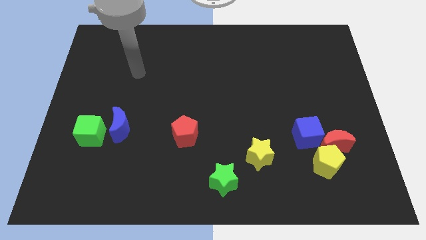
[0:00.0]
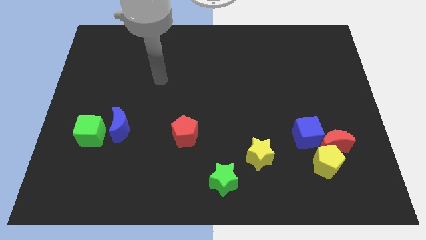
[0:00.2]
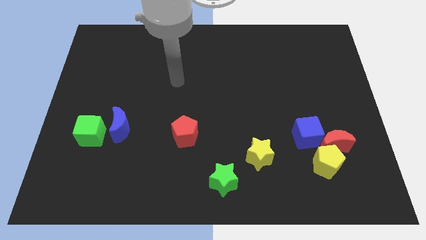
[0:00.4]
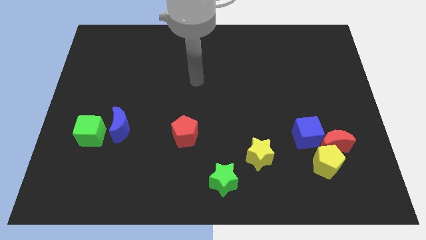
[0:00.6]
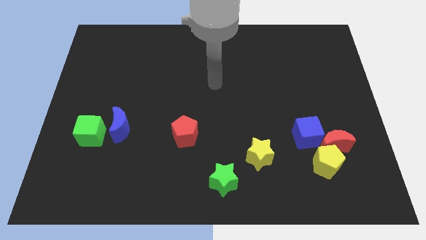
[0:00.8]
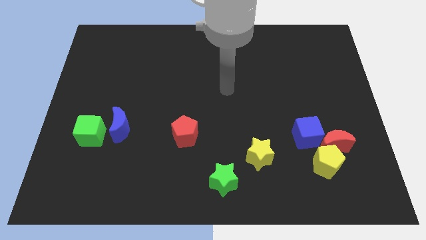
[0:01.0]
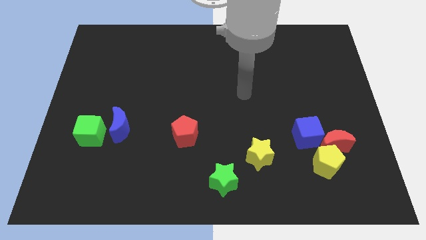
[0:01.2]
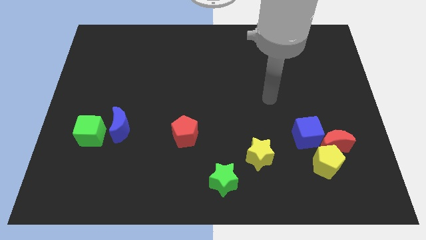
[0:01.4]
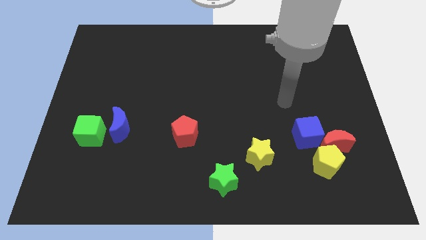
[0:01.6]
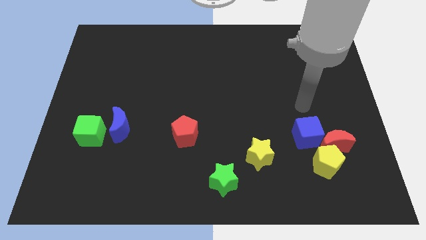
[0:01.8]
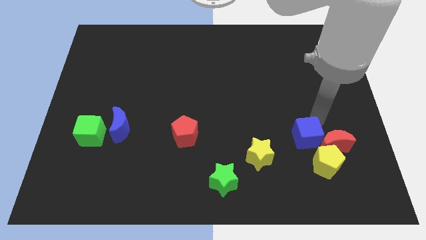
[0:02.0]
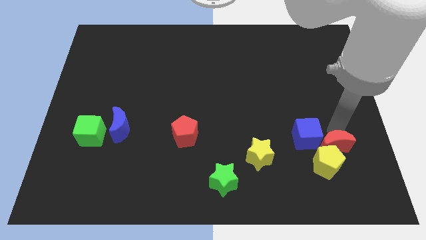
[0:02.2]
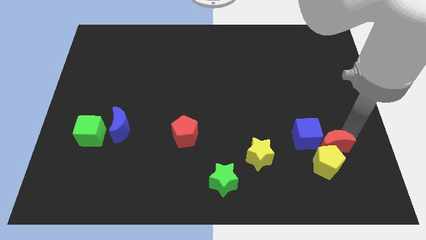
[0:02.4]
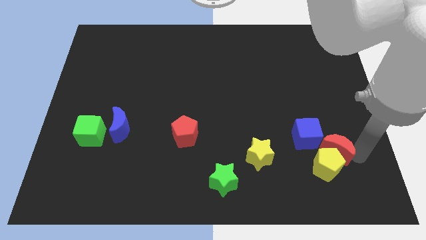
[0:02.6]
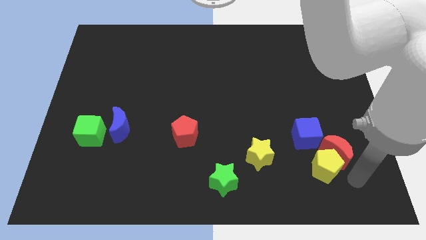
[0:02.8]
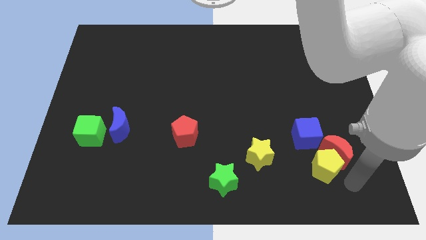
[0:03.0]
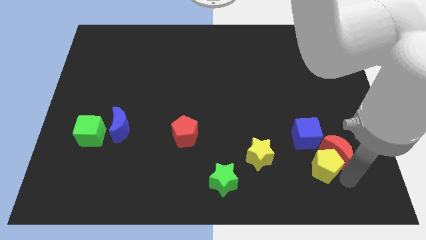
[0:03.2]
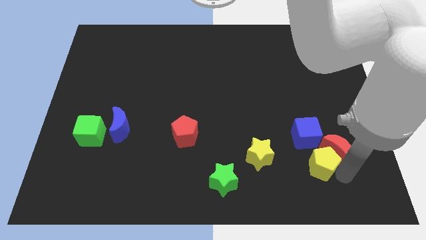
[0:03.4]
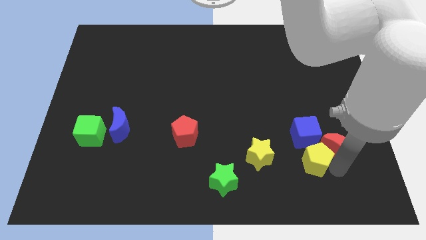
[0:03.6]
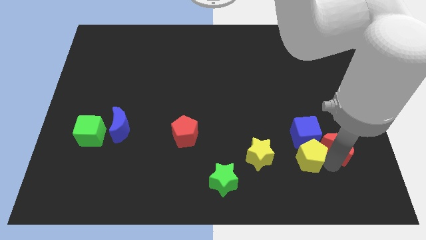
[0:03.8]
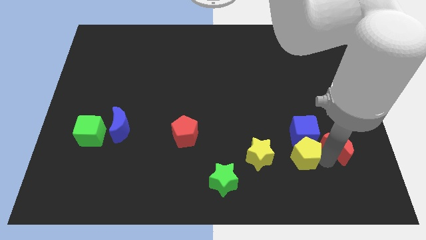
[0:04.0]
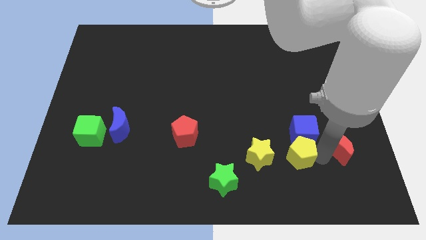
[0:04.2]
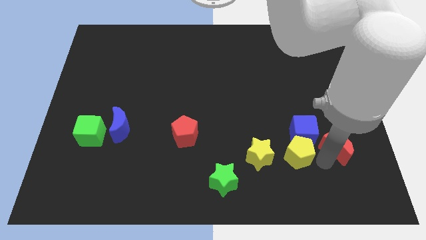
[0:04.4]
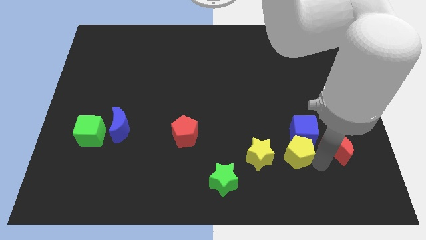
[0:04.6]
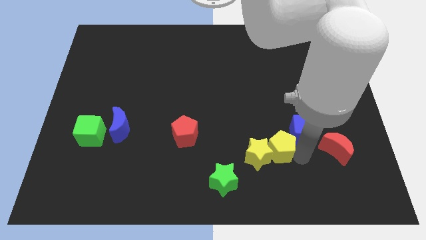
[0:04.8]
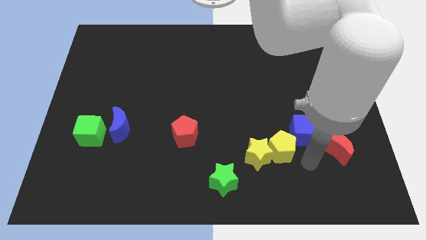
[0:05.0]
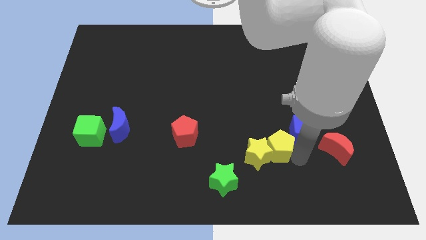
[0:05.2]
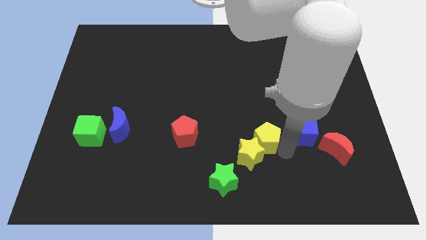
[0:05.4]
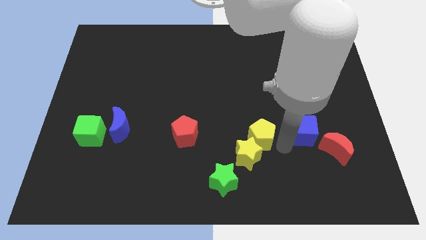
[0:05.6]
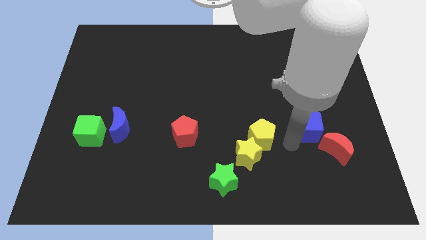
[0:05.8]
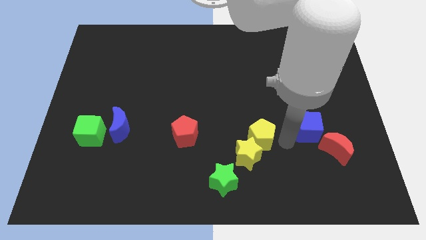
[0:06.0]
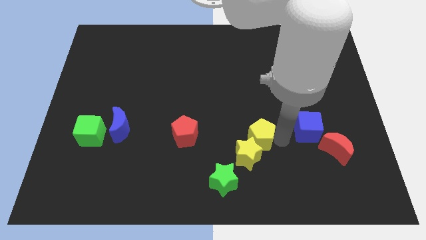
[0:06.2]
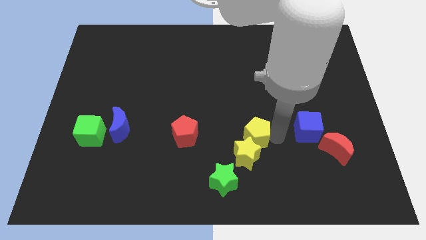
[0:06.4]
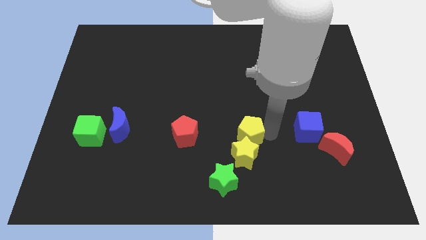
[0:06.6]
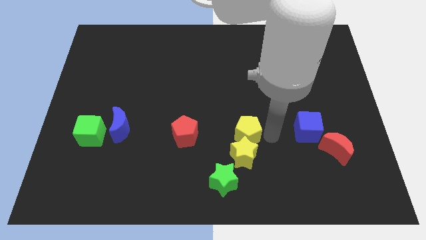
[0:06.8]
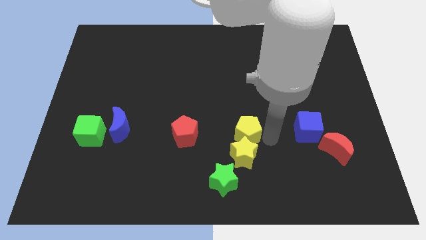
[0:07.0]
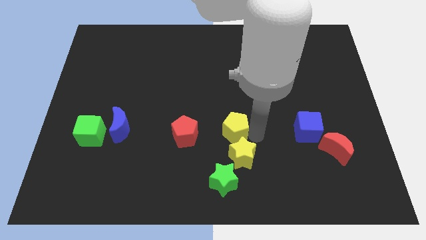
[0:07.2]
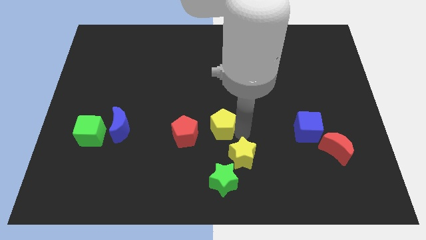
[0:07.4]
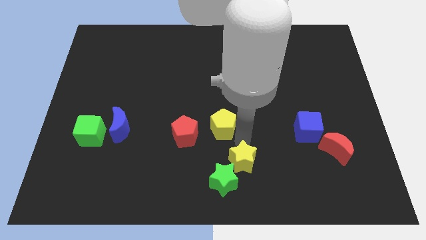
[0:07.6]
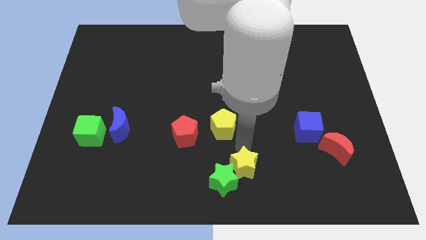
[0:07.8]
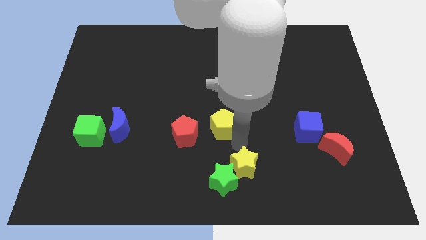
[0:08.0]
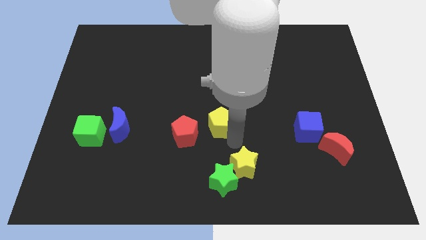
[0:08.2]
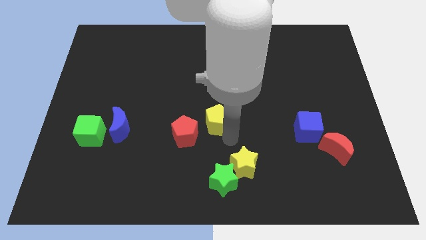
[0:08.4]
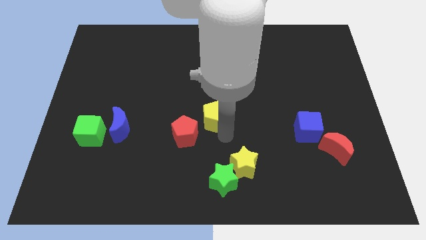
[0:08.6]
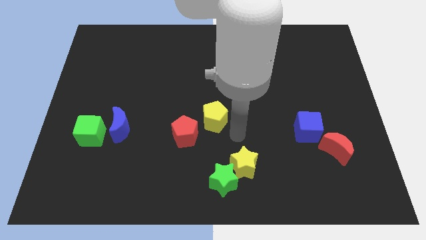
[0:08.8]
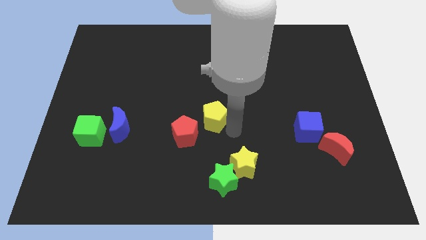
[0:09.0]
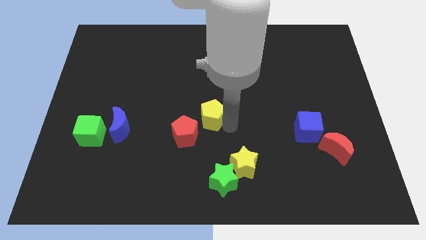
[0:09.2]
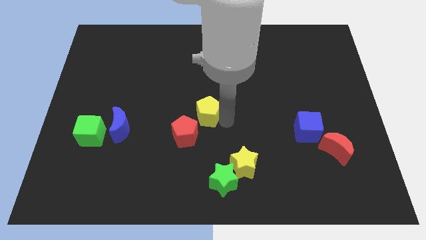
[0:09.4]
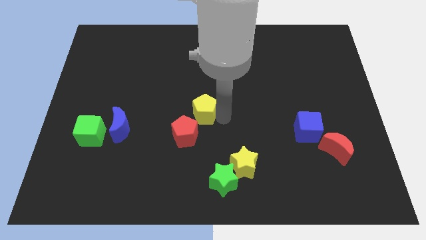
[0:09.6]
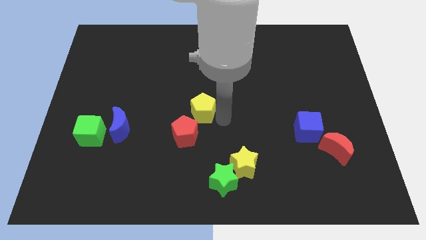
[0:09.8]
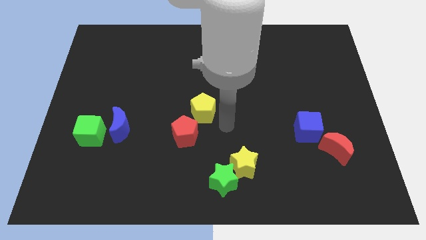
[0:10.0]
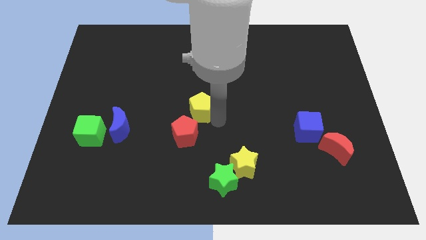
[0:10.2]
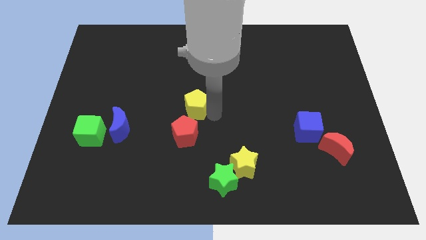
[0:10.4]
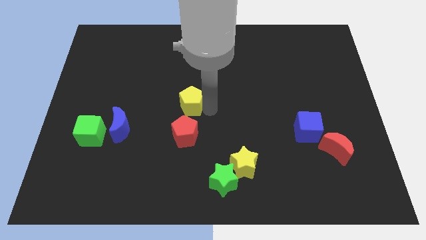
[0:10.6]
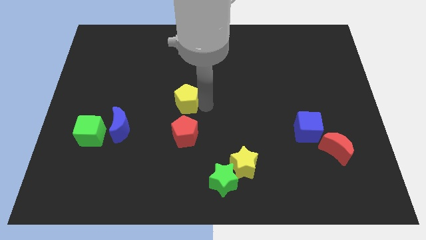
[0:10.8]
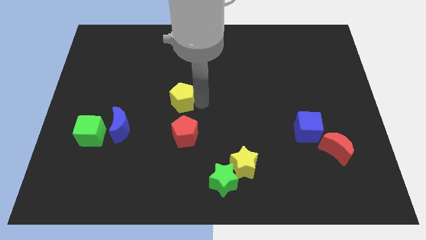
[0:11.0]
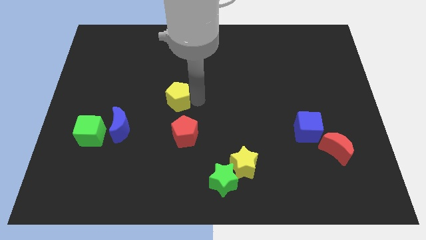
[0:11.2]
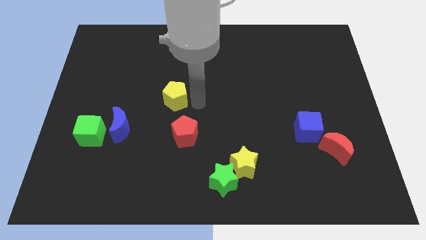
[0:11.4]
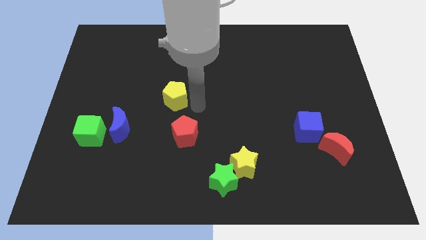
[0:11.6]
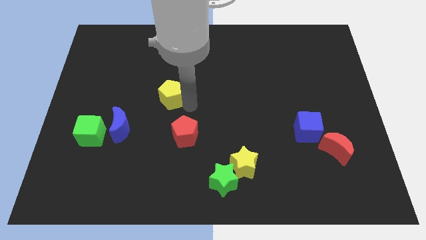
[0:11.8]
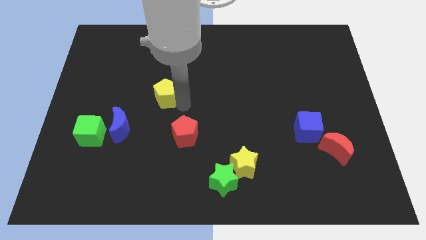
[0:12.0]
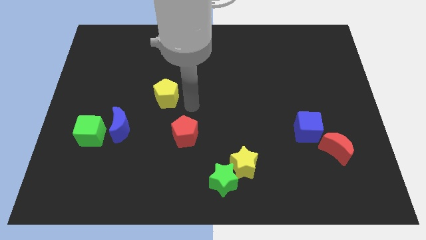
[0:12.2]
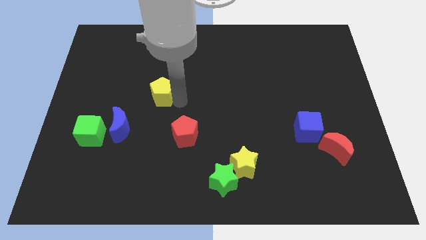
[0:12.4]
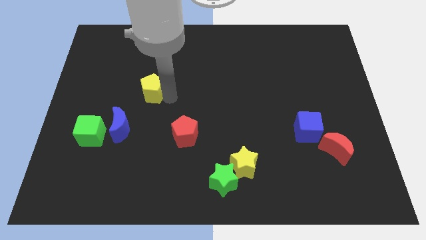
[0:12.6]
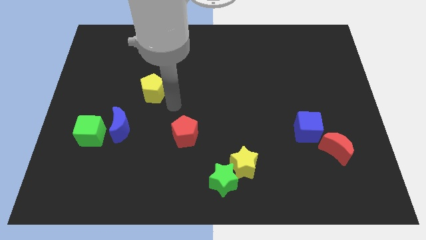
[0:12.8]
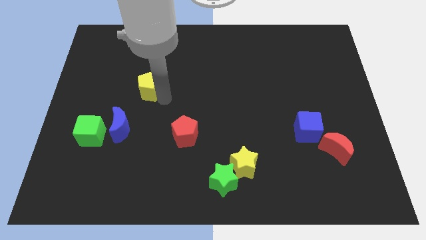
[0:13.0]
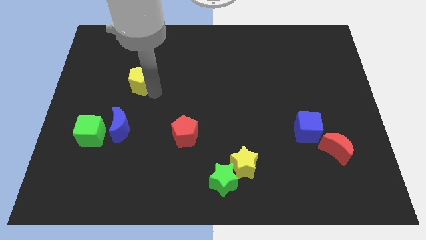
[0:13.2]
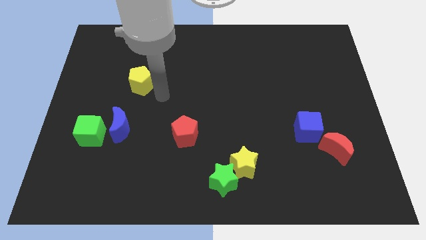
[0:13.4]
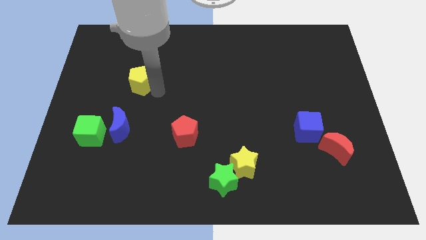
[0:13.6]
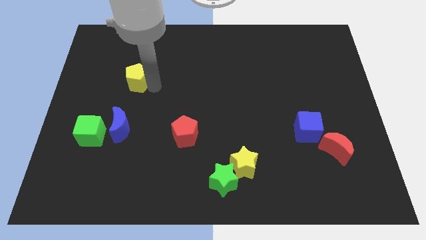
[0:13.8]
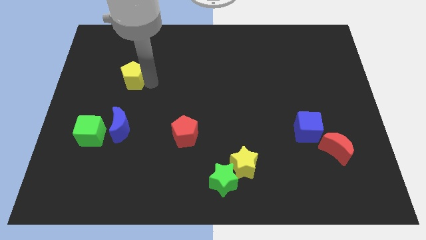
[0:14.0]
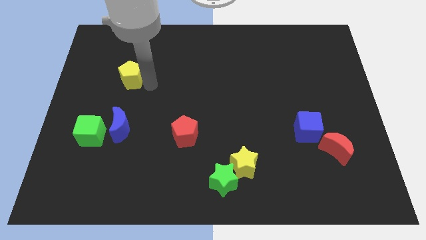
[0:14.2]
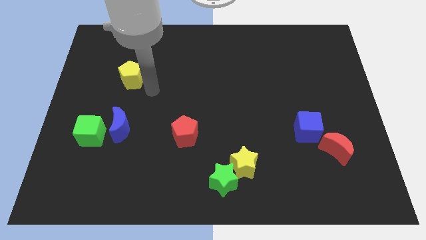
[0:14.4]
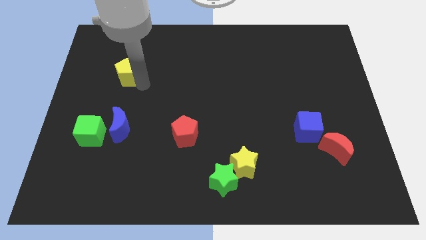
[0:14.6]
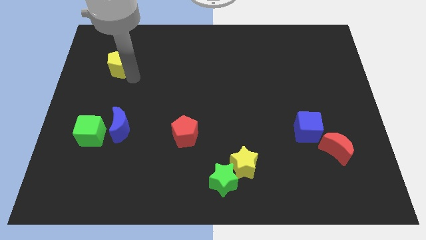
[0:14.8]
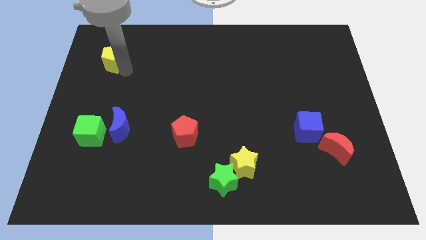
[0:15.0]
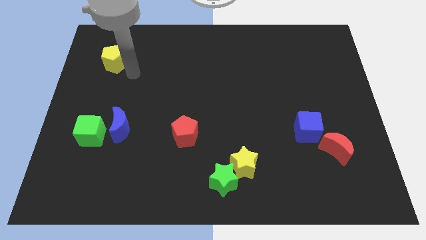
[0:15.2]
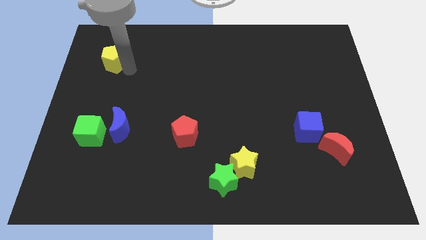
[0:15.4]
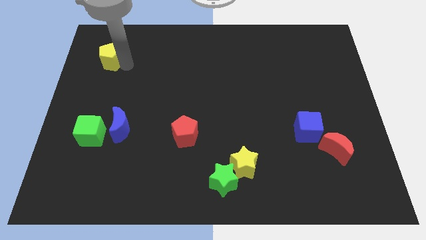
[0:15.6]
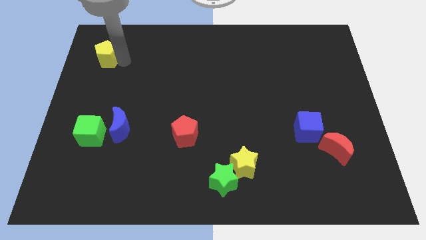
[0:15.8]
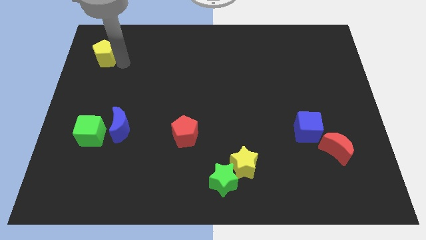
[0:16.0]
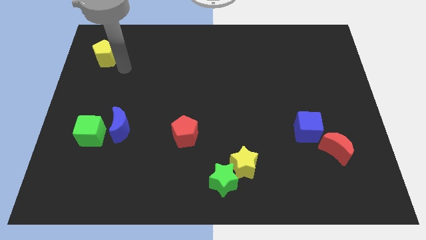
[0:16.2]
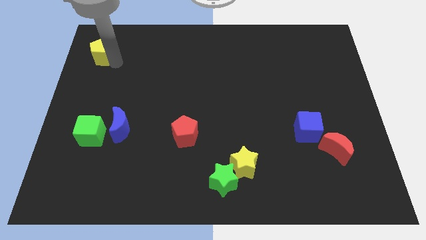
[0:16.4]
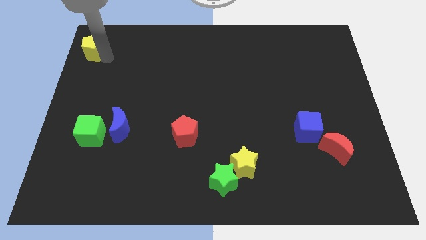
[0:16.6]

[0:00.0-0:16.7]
move the yellow pentagon to the upper left corner
